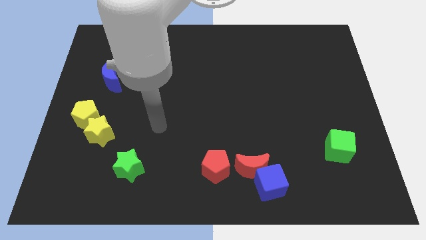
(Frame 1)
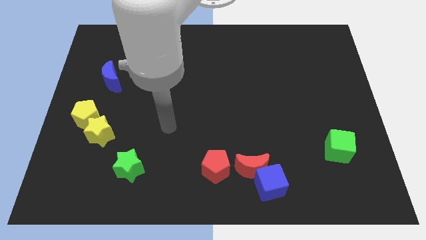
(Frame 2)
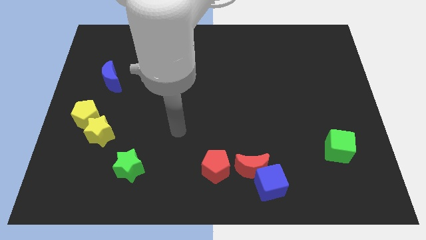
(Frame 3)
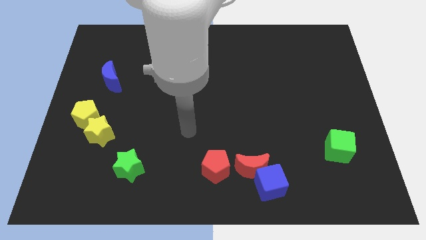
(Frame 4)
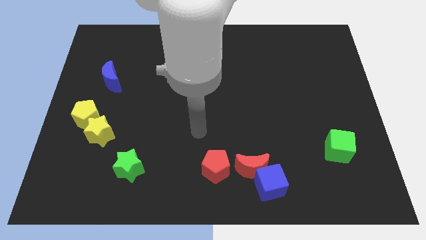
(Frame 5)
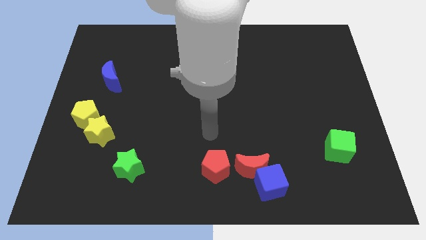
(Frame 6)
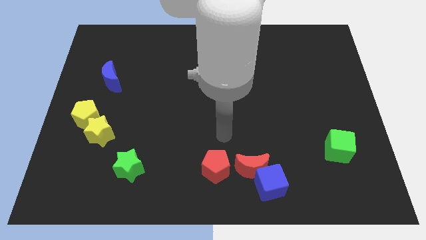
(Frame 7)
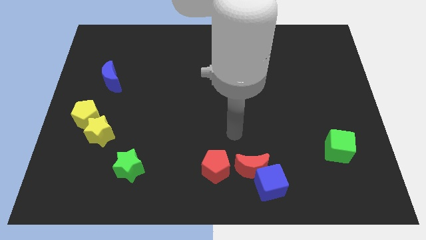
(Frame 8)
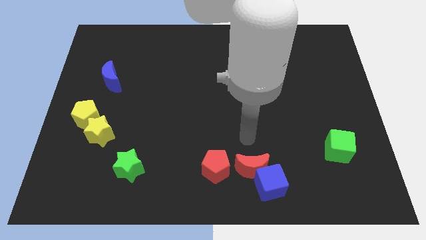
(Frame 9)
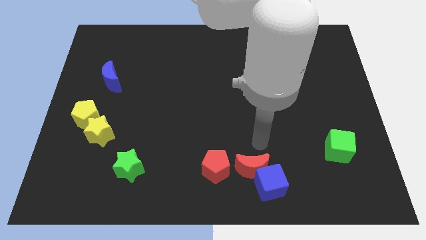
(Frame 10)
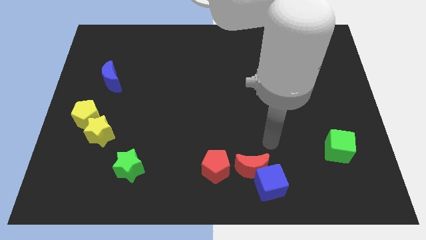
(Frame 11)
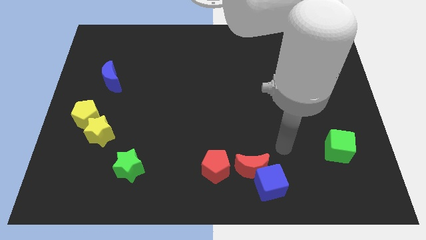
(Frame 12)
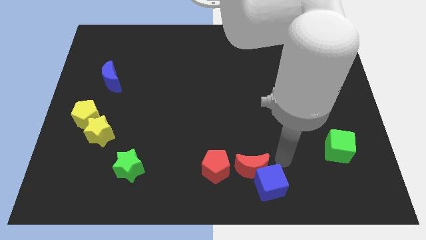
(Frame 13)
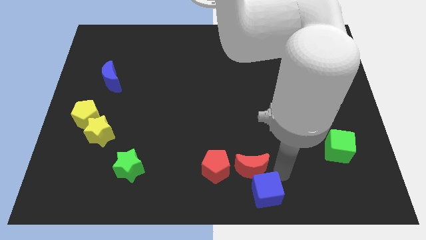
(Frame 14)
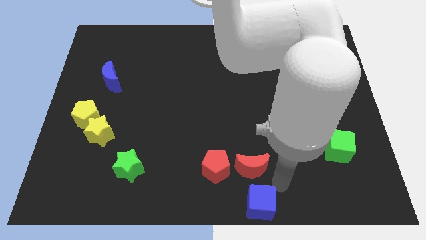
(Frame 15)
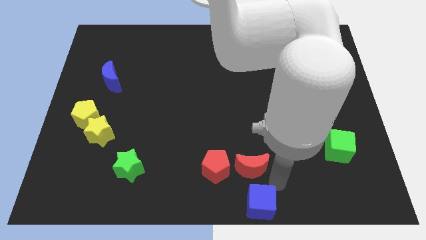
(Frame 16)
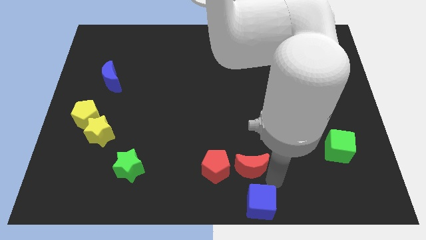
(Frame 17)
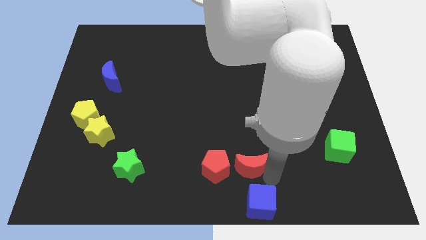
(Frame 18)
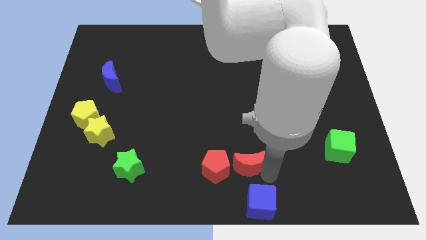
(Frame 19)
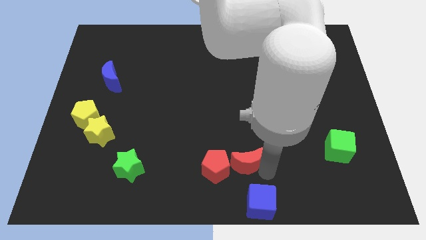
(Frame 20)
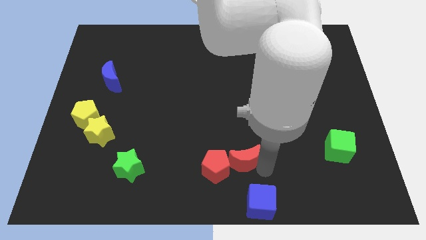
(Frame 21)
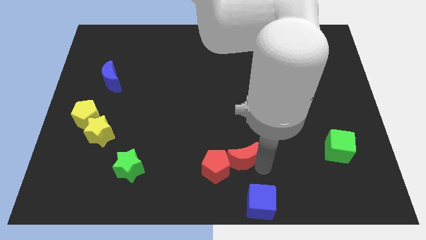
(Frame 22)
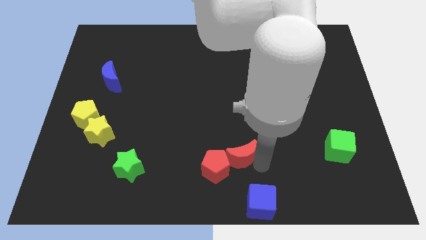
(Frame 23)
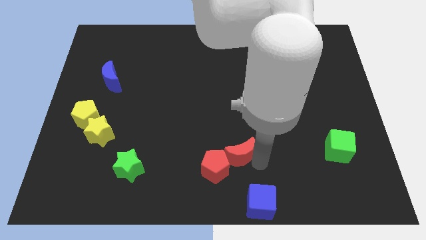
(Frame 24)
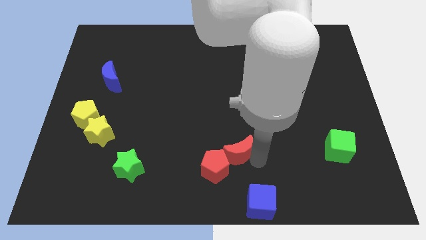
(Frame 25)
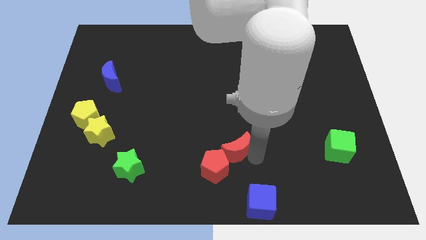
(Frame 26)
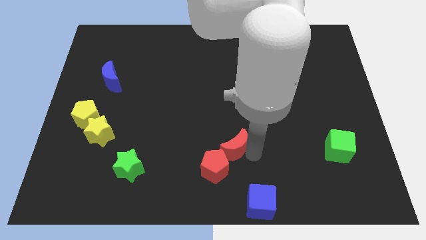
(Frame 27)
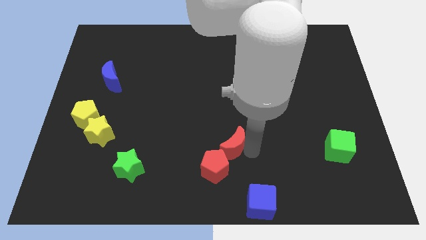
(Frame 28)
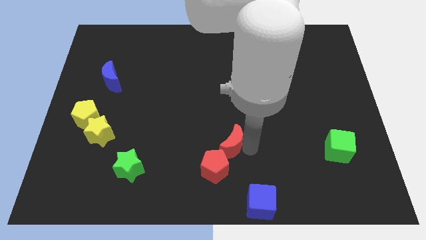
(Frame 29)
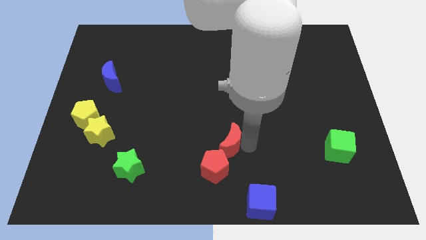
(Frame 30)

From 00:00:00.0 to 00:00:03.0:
move the red moon a little bit upwards and then to the left

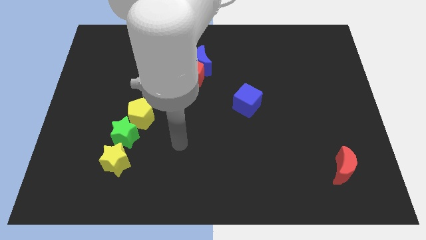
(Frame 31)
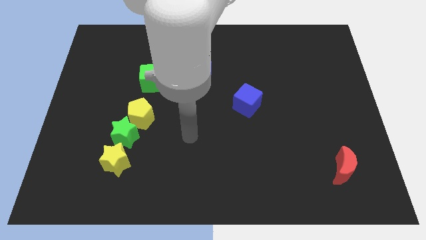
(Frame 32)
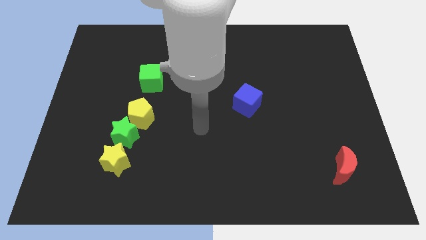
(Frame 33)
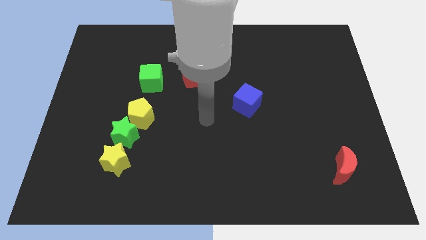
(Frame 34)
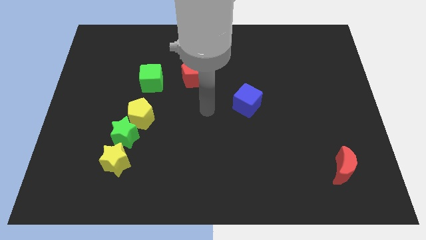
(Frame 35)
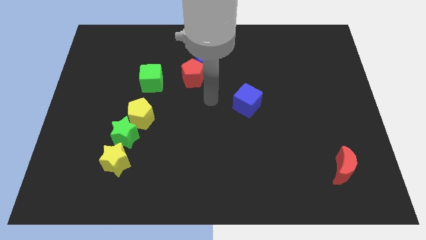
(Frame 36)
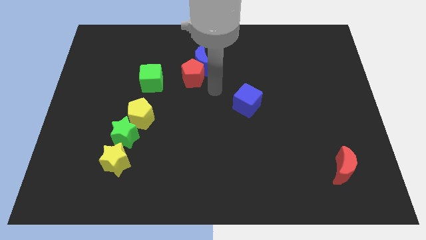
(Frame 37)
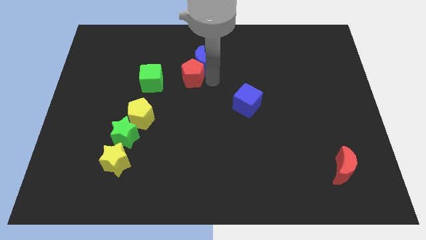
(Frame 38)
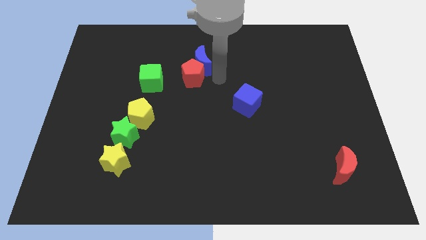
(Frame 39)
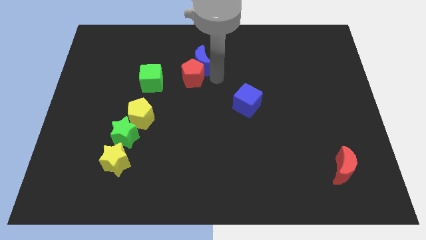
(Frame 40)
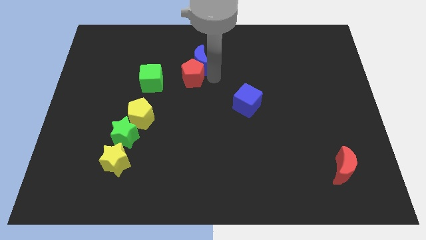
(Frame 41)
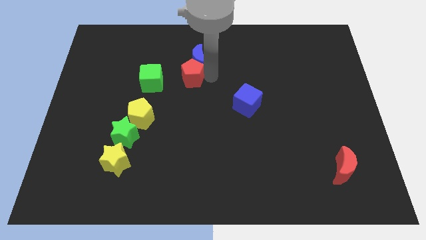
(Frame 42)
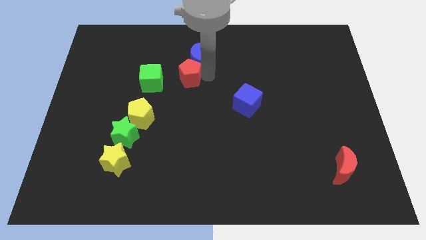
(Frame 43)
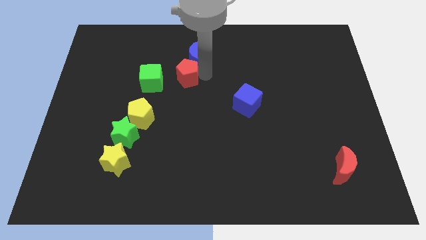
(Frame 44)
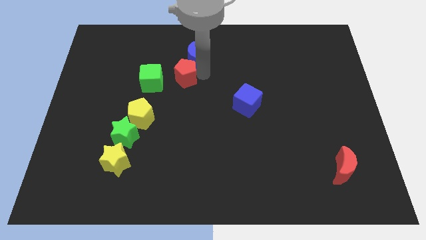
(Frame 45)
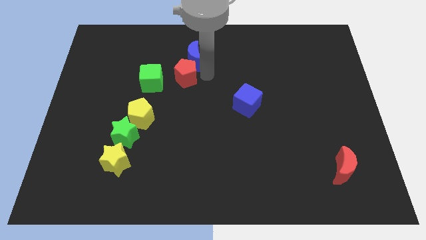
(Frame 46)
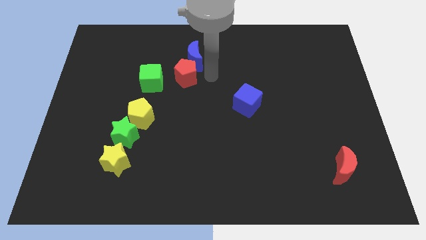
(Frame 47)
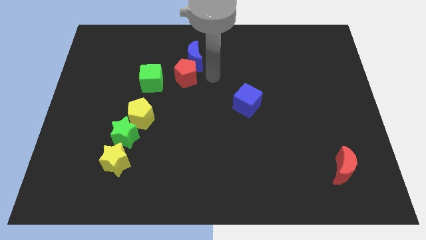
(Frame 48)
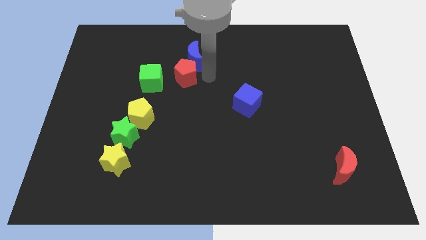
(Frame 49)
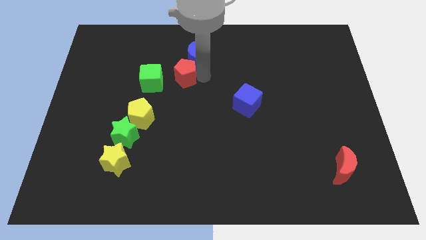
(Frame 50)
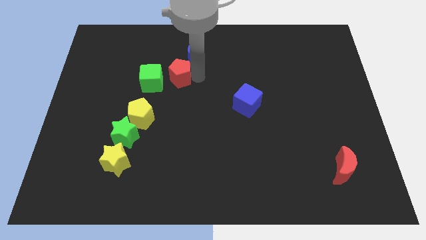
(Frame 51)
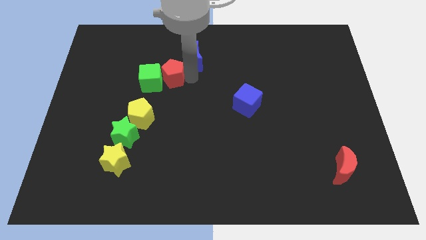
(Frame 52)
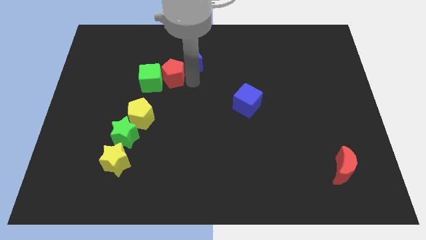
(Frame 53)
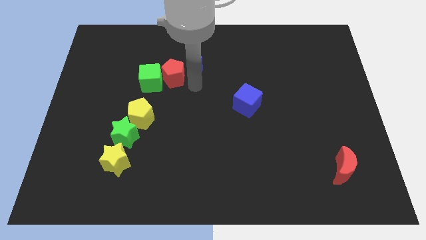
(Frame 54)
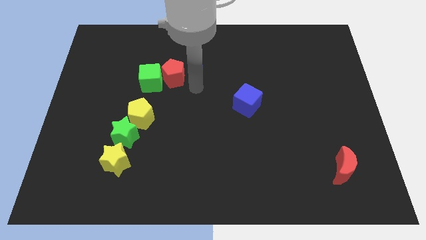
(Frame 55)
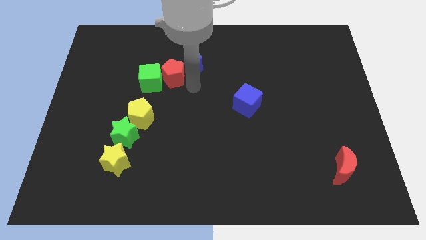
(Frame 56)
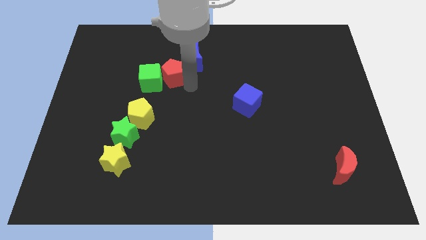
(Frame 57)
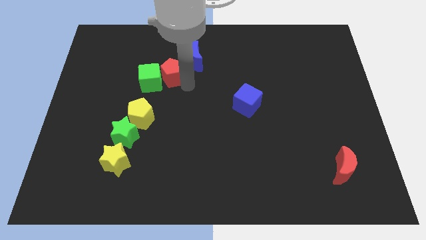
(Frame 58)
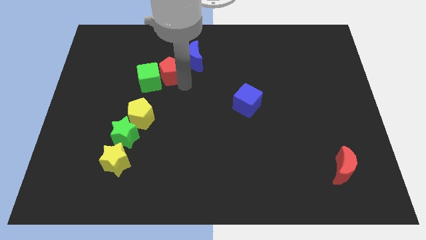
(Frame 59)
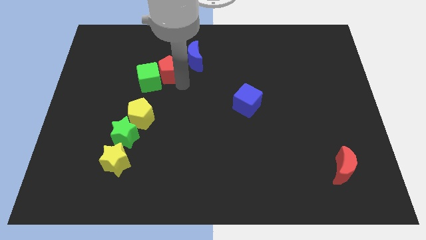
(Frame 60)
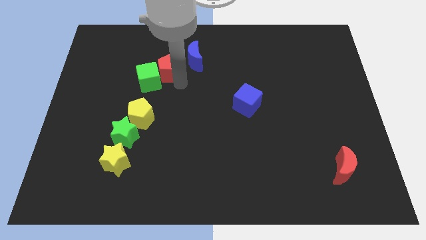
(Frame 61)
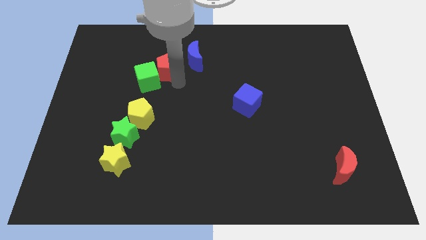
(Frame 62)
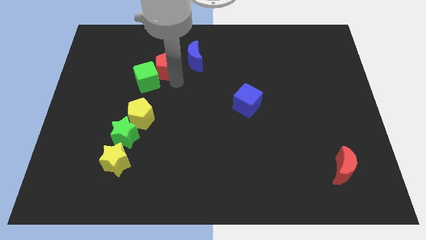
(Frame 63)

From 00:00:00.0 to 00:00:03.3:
push the red pentagon a bit to the left

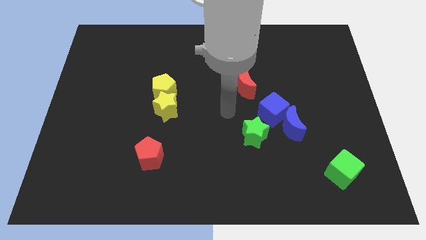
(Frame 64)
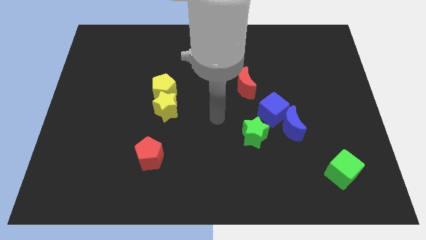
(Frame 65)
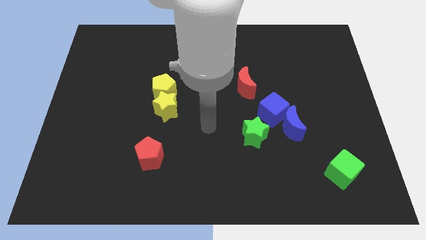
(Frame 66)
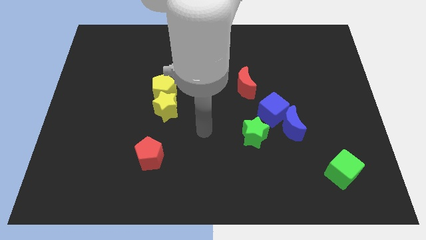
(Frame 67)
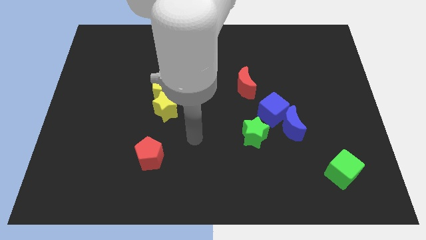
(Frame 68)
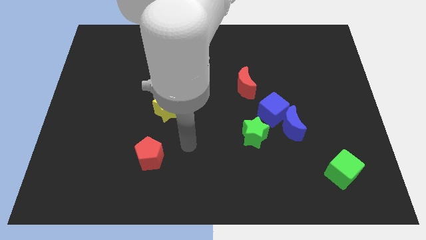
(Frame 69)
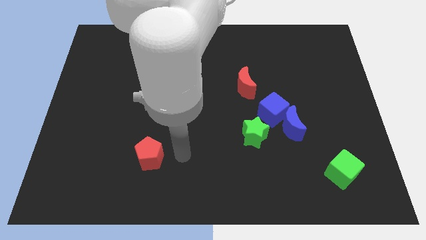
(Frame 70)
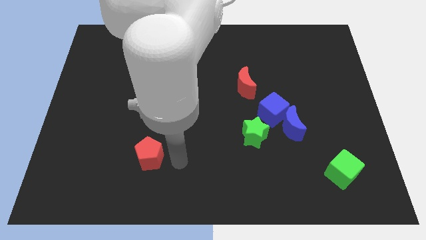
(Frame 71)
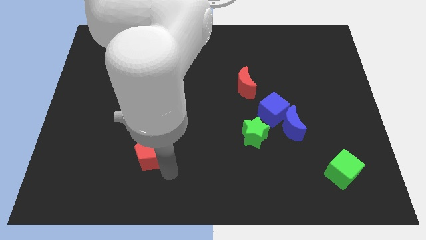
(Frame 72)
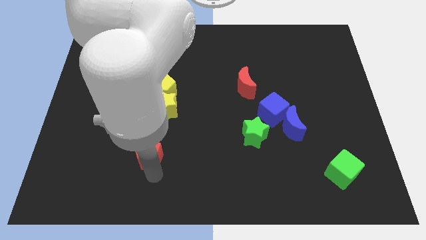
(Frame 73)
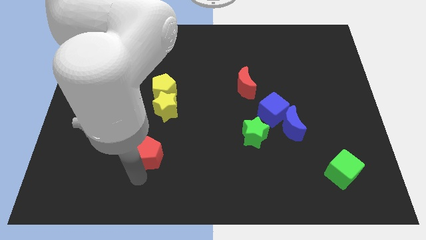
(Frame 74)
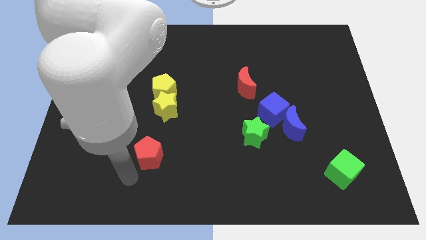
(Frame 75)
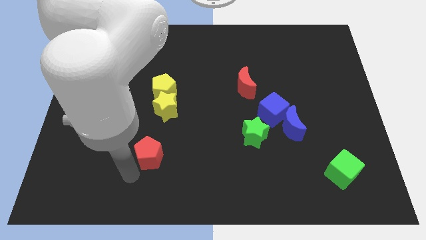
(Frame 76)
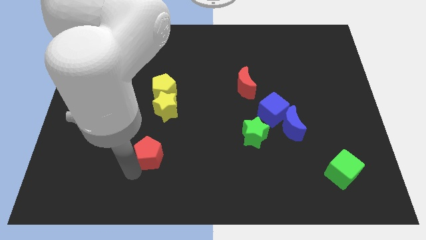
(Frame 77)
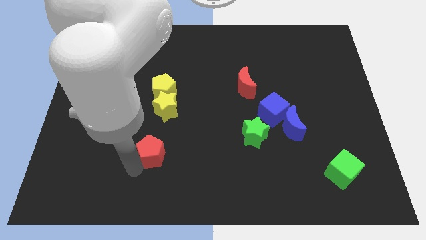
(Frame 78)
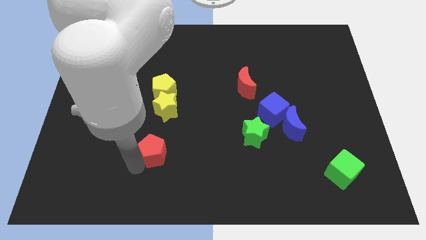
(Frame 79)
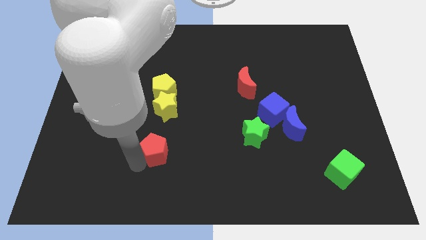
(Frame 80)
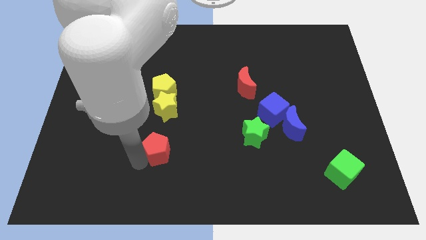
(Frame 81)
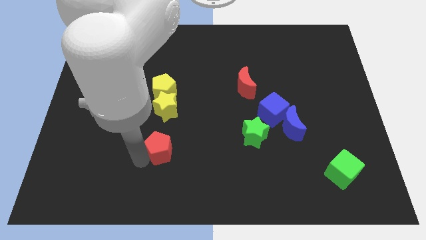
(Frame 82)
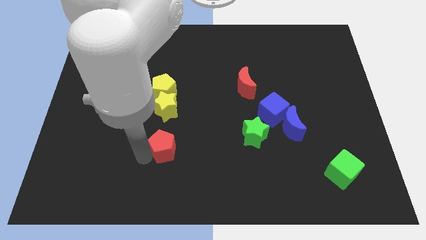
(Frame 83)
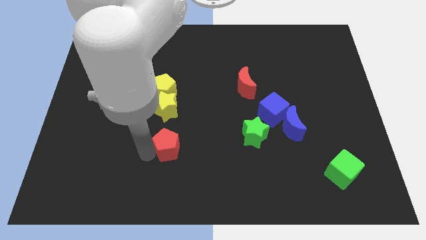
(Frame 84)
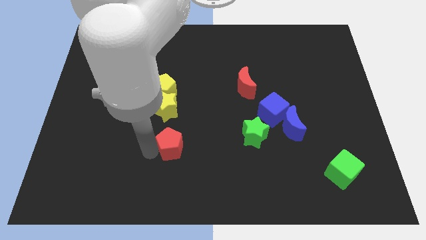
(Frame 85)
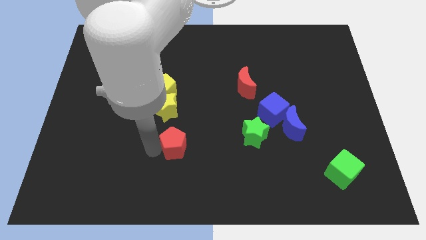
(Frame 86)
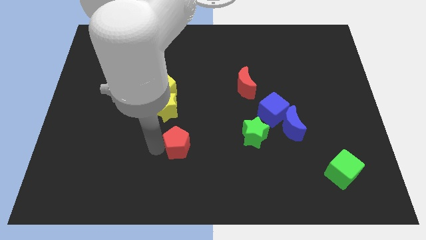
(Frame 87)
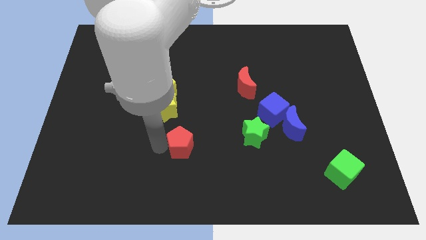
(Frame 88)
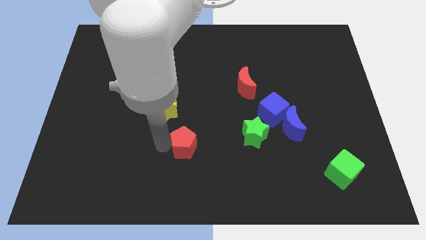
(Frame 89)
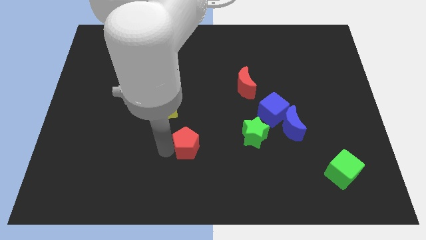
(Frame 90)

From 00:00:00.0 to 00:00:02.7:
slide the red pentagon up and right somewhat
